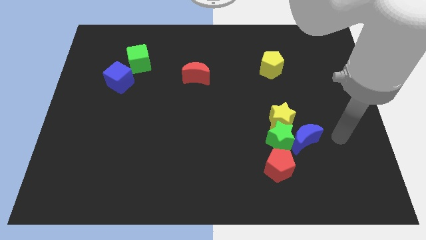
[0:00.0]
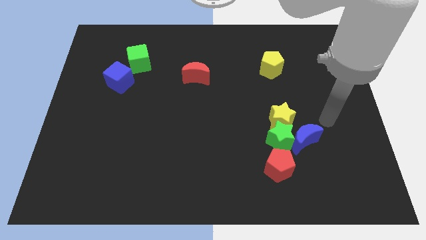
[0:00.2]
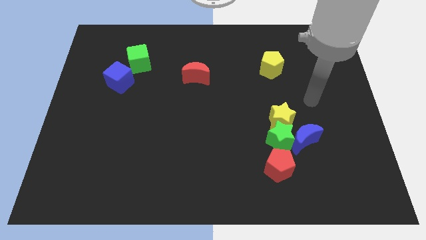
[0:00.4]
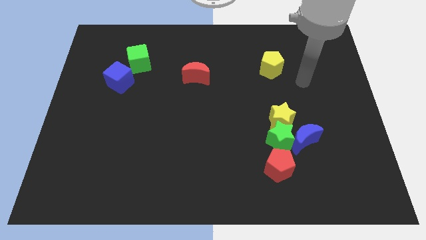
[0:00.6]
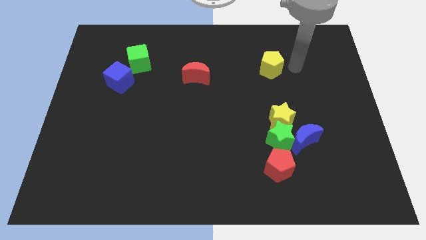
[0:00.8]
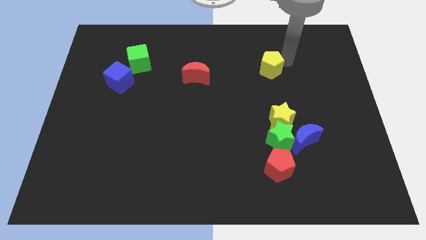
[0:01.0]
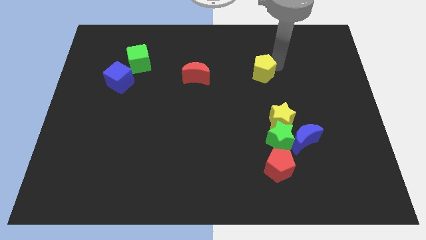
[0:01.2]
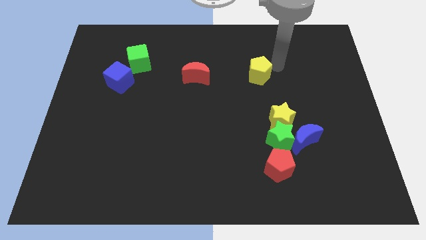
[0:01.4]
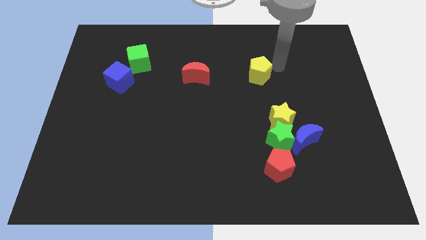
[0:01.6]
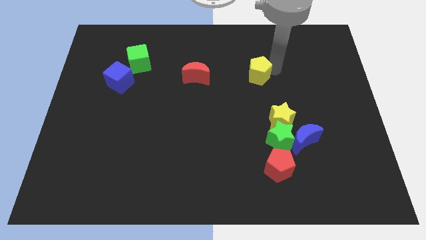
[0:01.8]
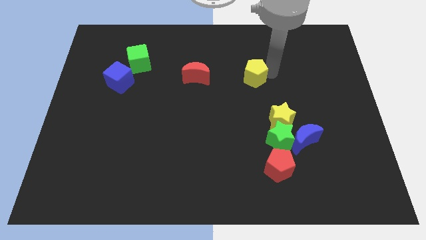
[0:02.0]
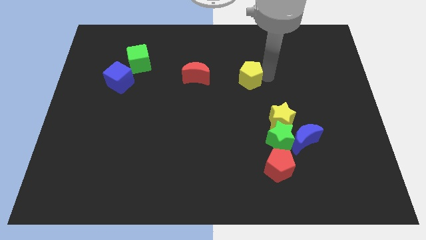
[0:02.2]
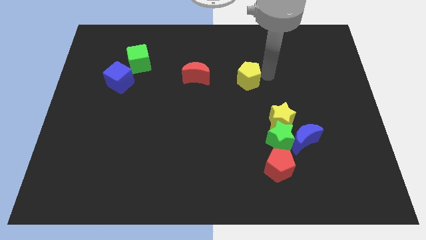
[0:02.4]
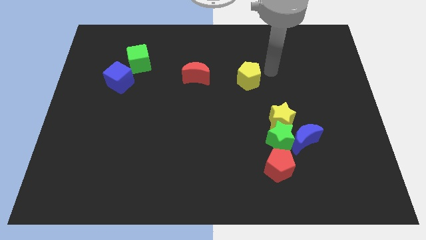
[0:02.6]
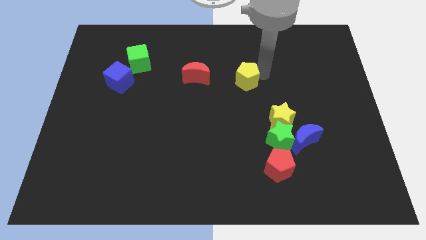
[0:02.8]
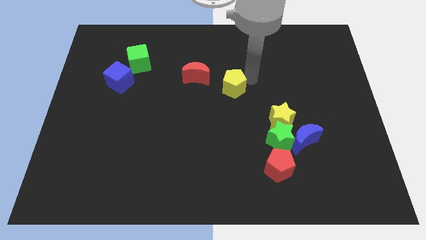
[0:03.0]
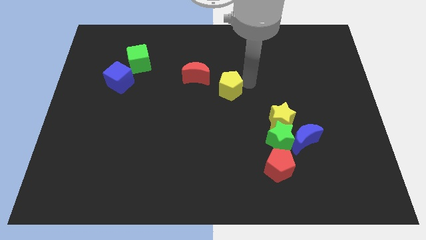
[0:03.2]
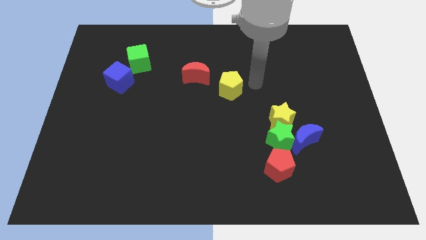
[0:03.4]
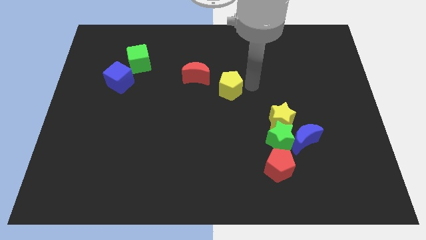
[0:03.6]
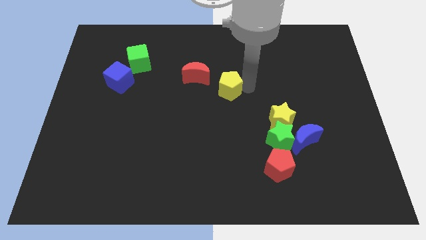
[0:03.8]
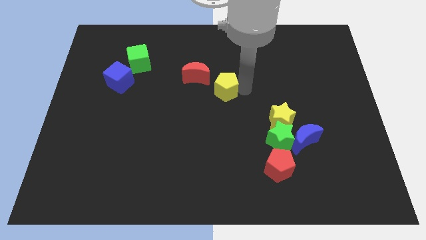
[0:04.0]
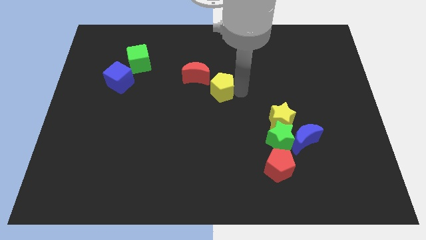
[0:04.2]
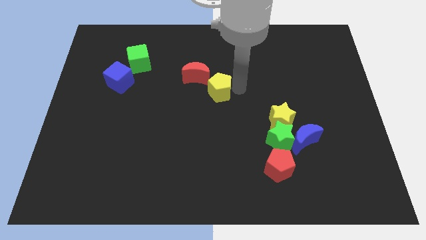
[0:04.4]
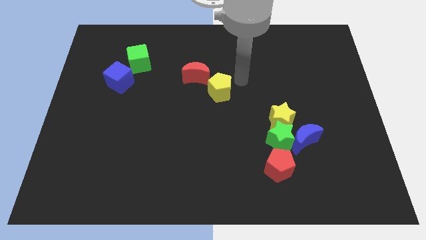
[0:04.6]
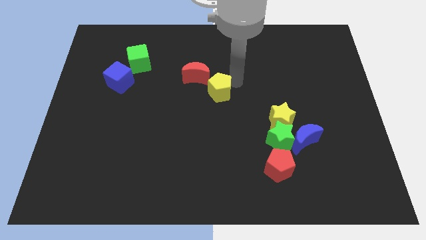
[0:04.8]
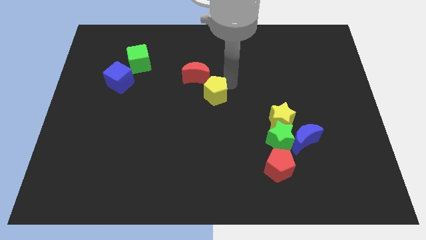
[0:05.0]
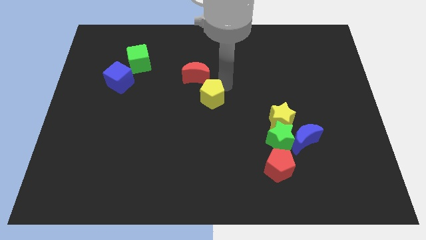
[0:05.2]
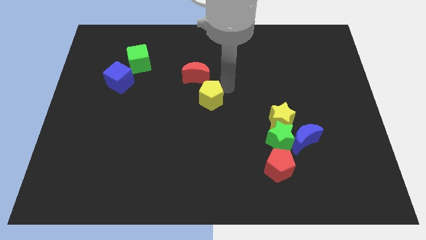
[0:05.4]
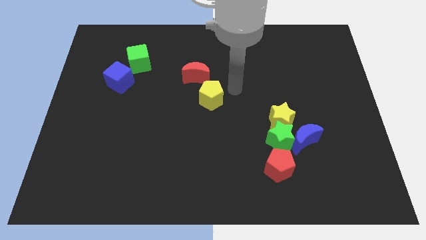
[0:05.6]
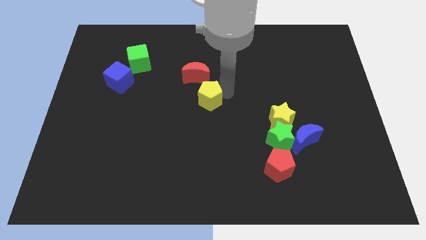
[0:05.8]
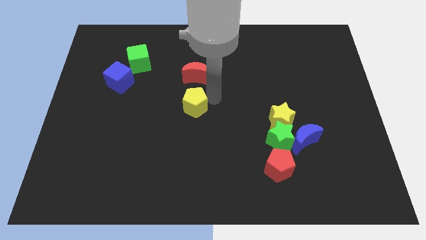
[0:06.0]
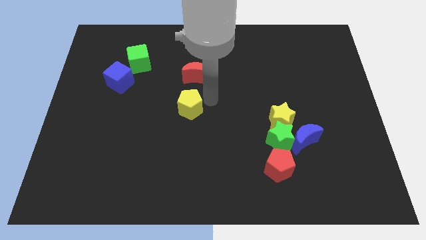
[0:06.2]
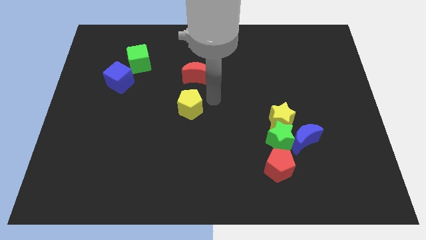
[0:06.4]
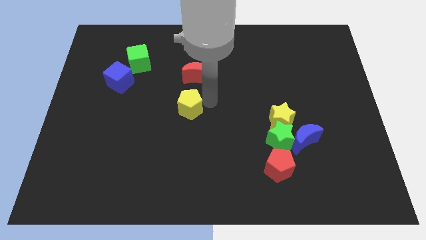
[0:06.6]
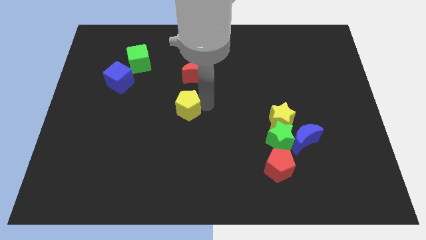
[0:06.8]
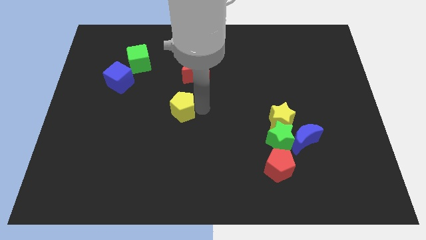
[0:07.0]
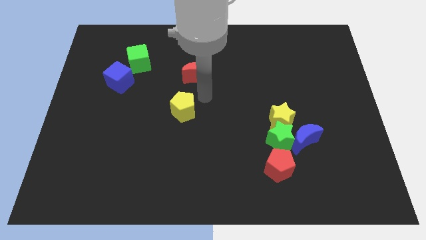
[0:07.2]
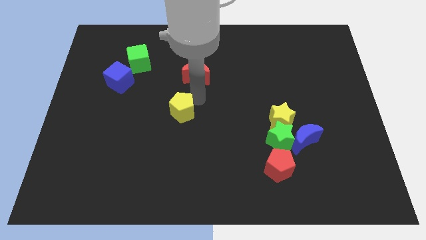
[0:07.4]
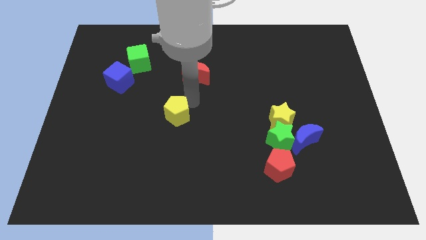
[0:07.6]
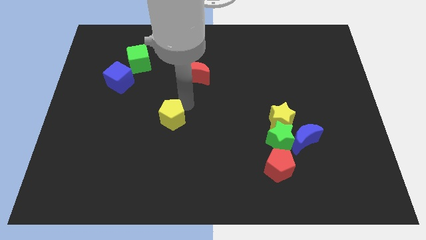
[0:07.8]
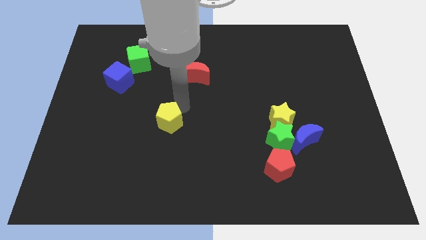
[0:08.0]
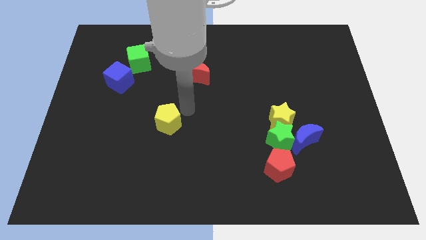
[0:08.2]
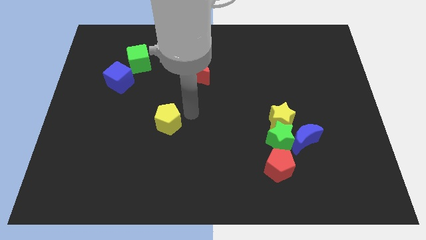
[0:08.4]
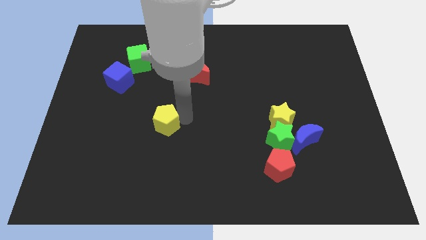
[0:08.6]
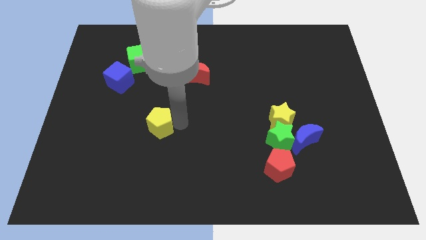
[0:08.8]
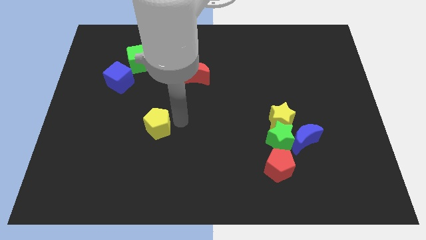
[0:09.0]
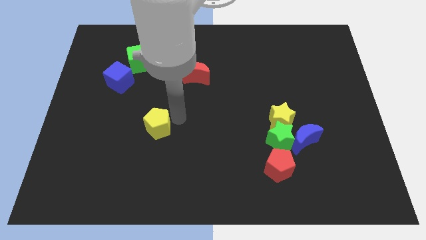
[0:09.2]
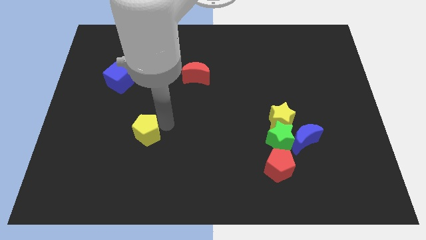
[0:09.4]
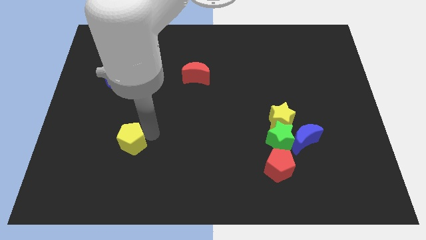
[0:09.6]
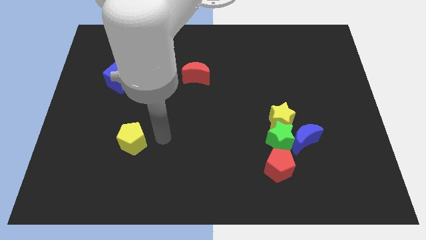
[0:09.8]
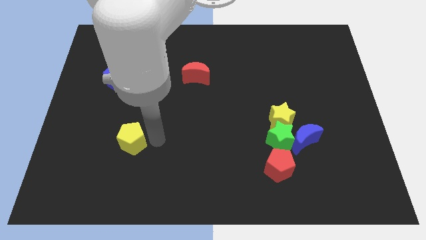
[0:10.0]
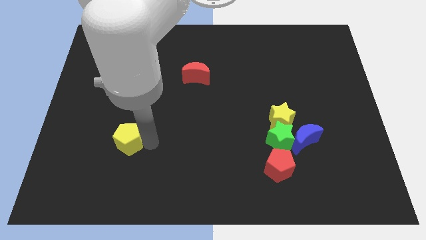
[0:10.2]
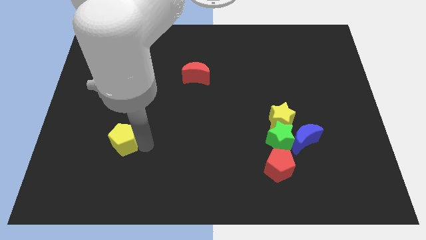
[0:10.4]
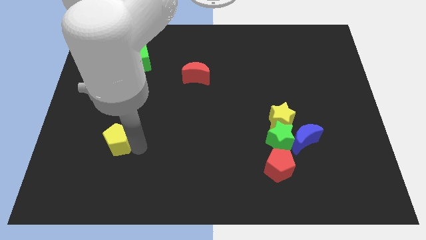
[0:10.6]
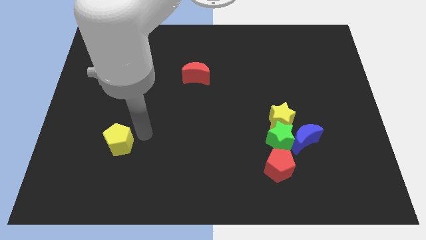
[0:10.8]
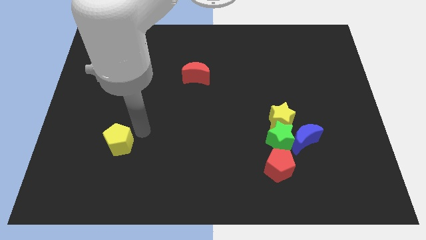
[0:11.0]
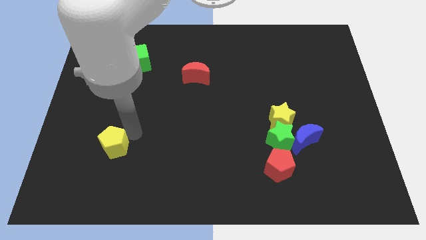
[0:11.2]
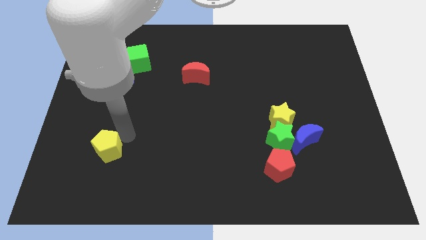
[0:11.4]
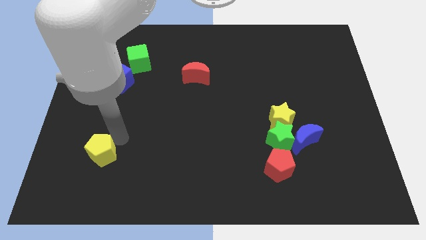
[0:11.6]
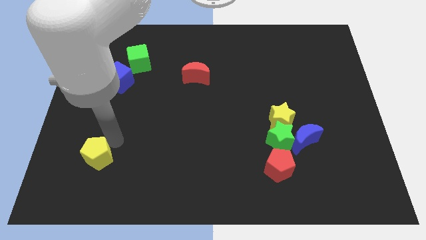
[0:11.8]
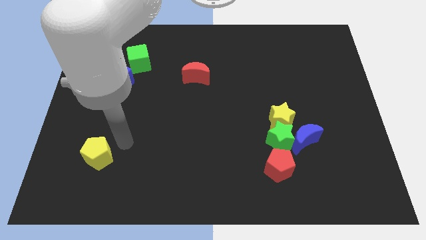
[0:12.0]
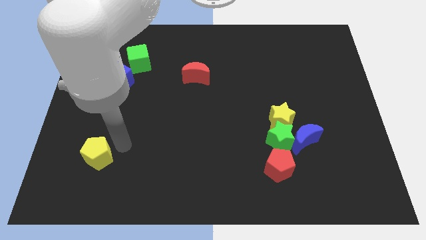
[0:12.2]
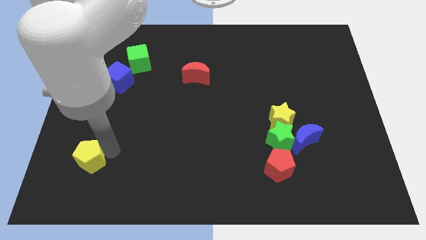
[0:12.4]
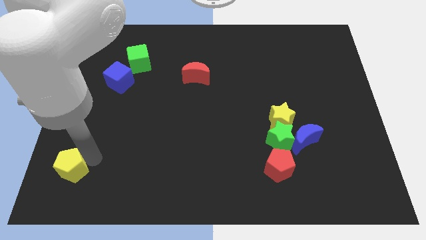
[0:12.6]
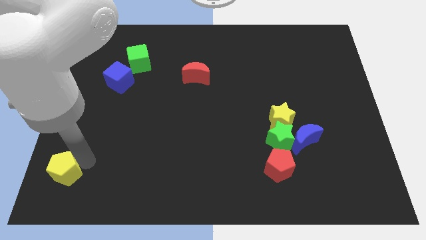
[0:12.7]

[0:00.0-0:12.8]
move the yellow pentagon to the bottom left of the board

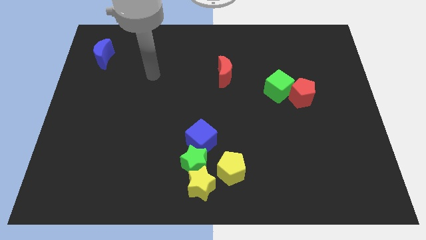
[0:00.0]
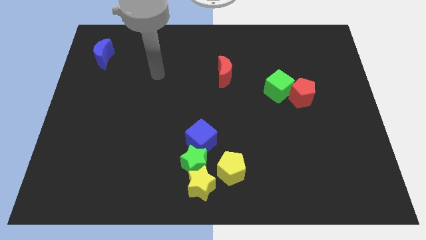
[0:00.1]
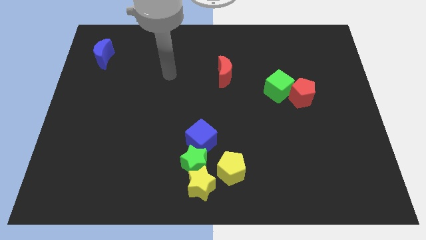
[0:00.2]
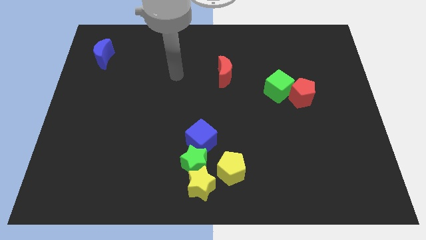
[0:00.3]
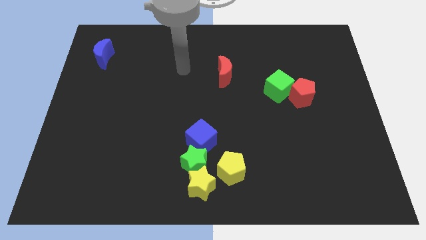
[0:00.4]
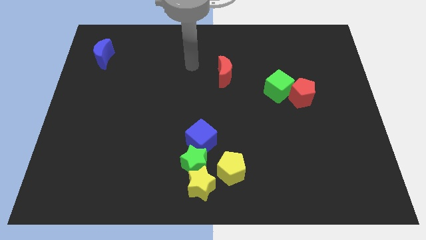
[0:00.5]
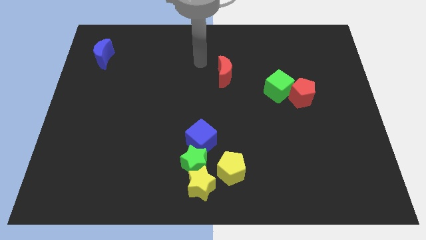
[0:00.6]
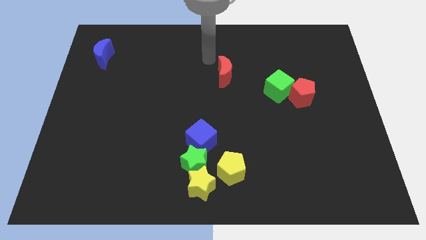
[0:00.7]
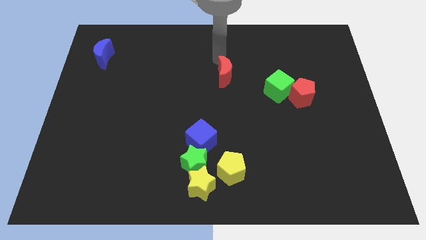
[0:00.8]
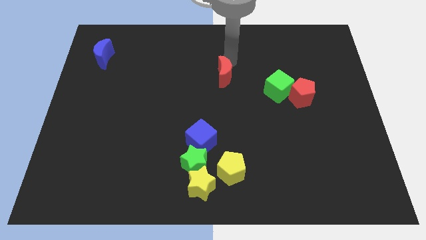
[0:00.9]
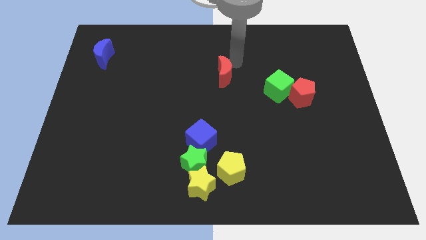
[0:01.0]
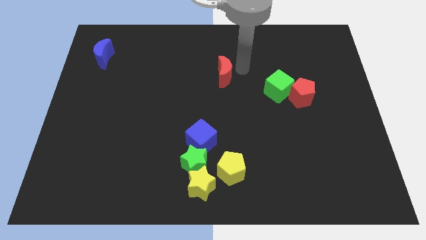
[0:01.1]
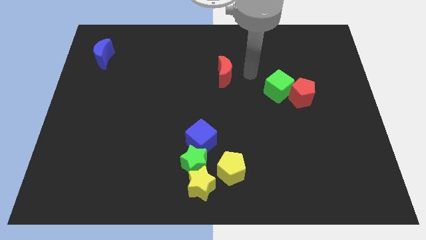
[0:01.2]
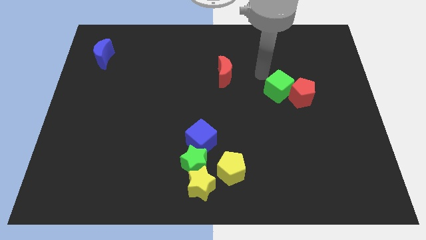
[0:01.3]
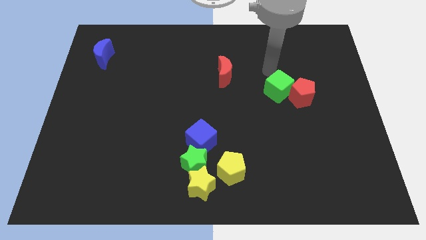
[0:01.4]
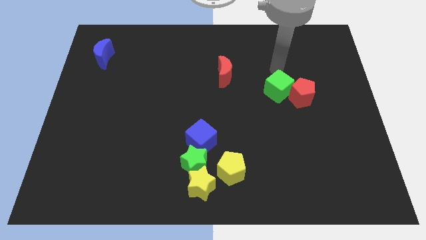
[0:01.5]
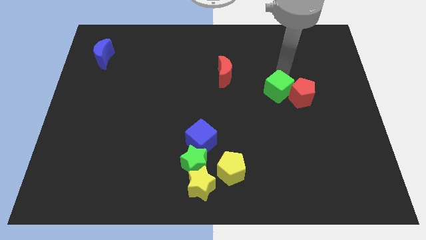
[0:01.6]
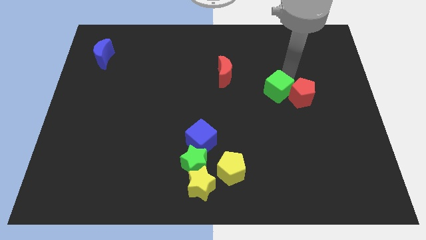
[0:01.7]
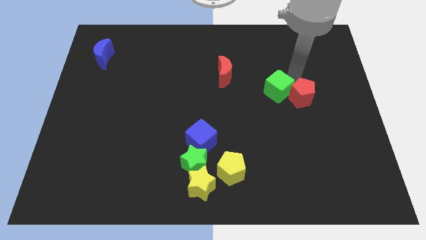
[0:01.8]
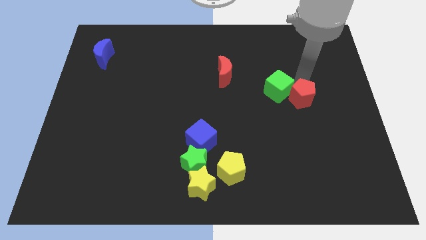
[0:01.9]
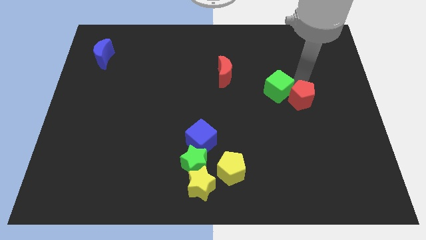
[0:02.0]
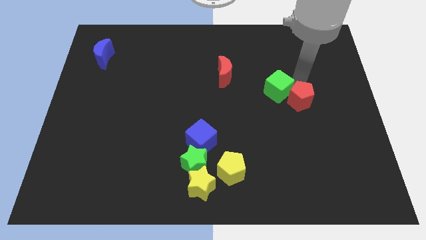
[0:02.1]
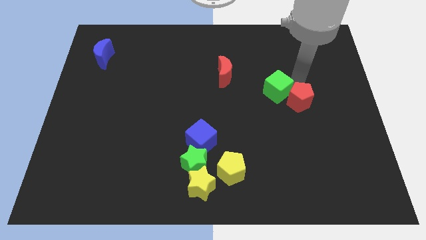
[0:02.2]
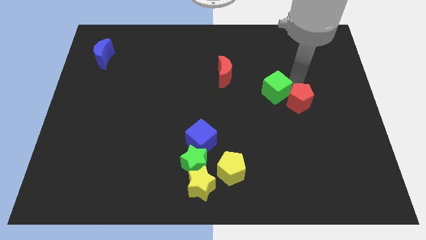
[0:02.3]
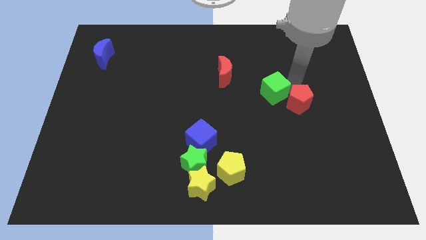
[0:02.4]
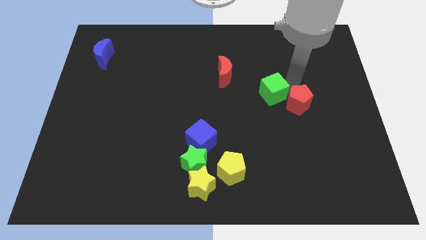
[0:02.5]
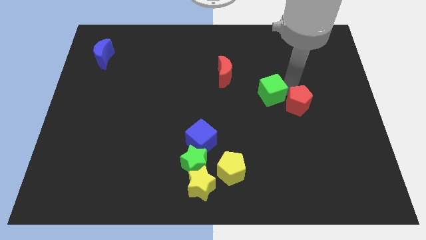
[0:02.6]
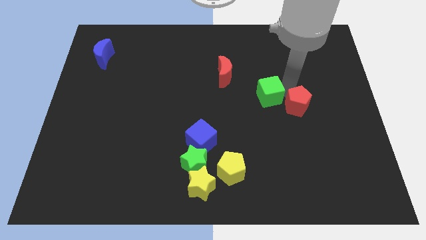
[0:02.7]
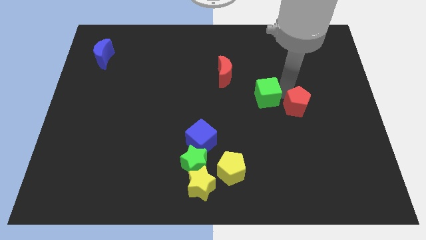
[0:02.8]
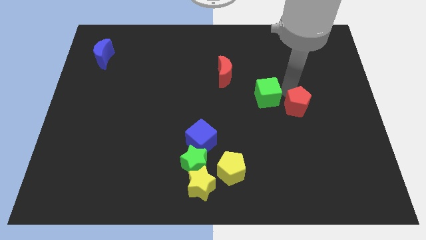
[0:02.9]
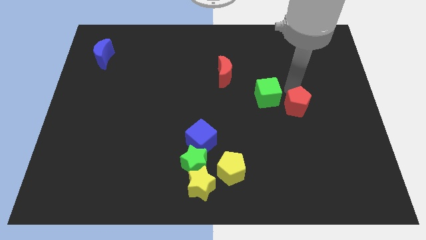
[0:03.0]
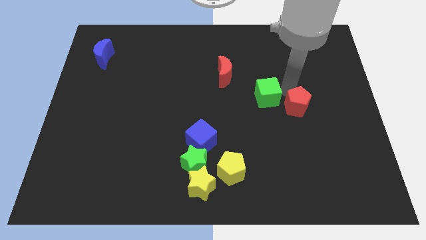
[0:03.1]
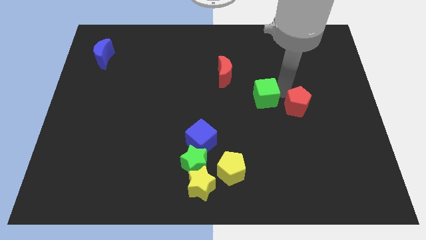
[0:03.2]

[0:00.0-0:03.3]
push the green cube to the center
